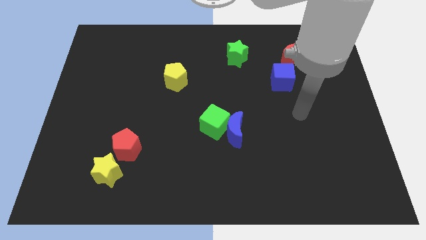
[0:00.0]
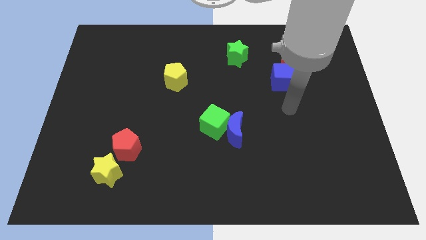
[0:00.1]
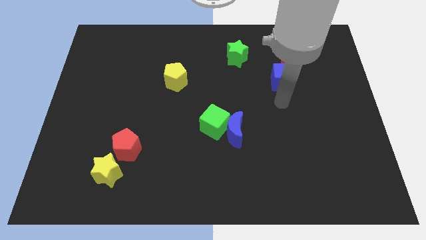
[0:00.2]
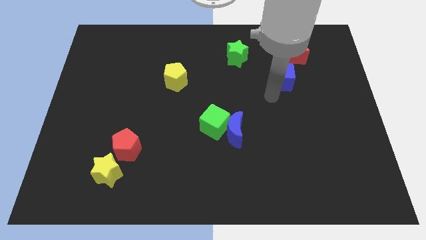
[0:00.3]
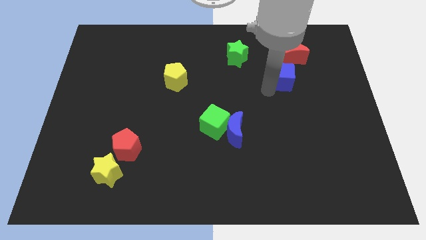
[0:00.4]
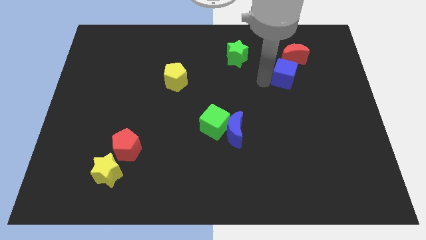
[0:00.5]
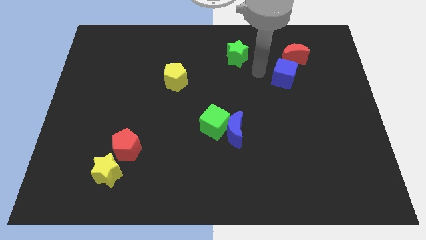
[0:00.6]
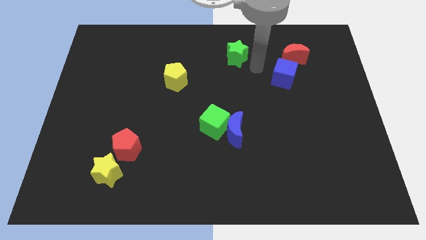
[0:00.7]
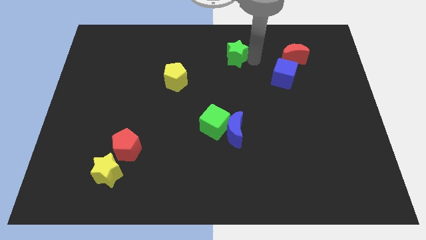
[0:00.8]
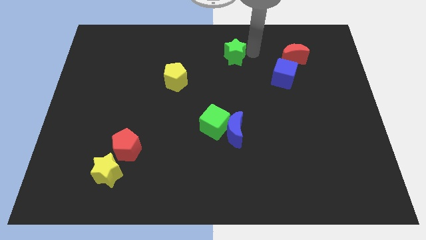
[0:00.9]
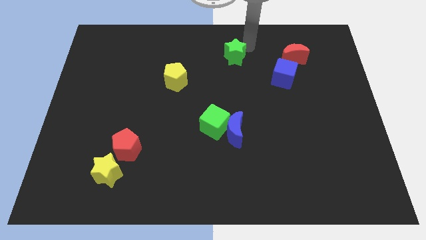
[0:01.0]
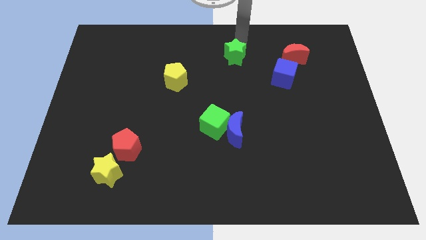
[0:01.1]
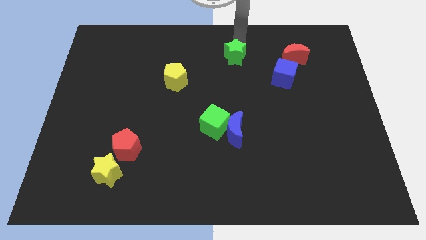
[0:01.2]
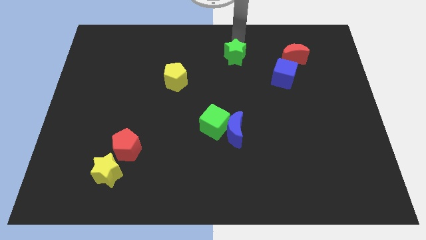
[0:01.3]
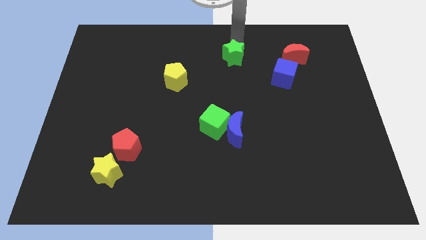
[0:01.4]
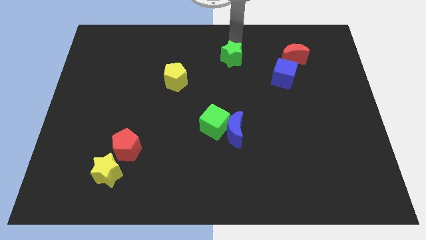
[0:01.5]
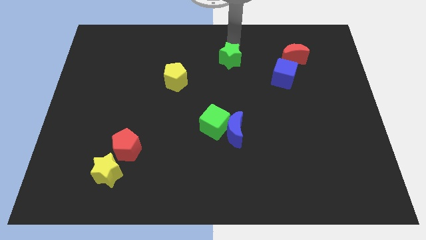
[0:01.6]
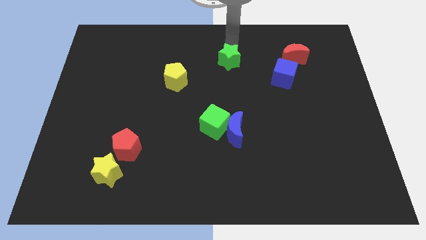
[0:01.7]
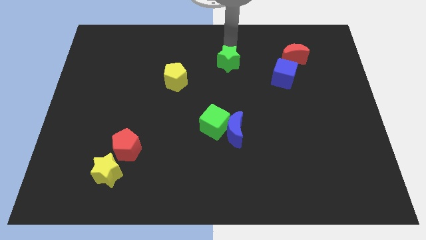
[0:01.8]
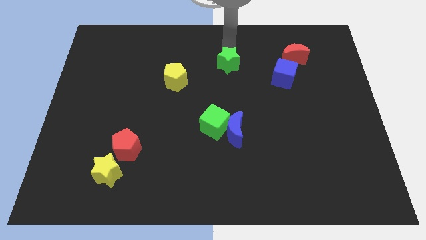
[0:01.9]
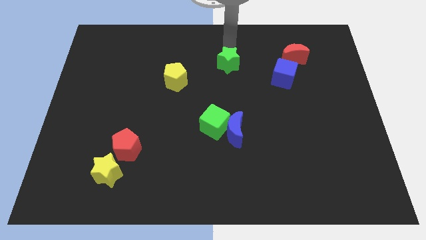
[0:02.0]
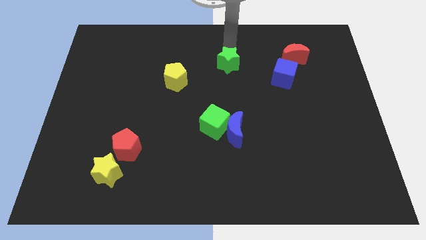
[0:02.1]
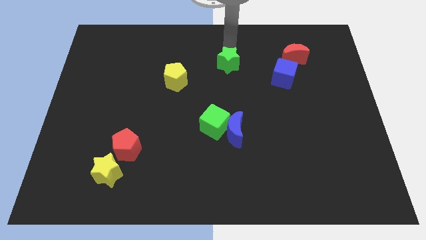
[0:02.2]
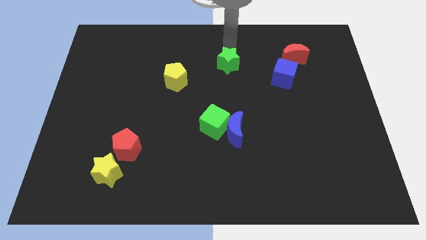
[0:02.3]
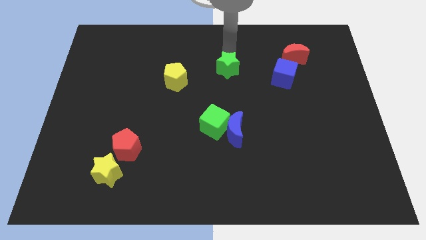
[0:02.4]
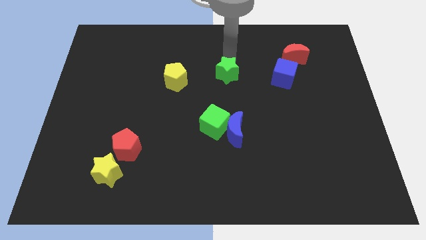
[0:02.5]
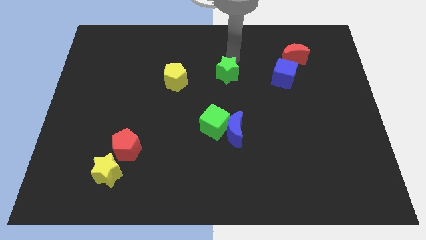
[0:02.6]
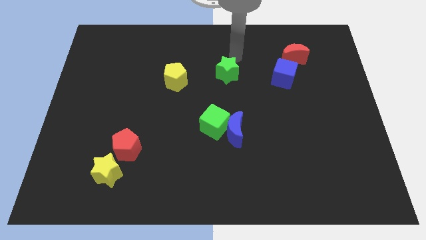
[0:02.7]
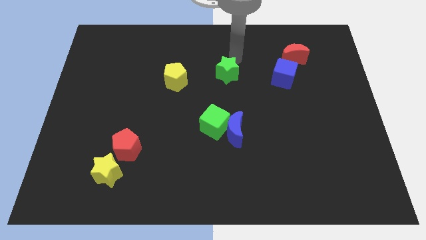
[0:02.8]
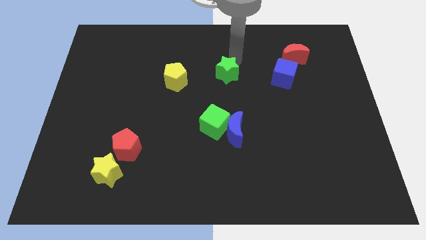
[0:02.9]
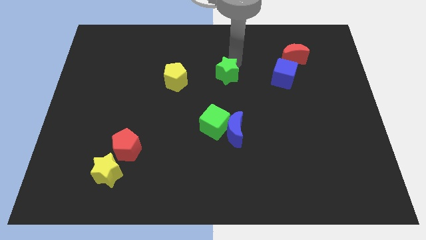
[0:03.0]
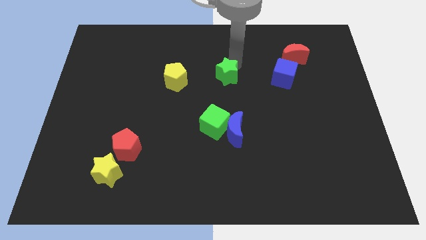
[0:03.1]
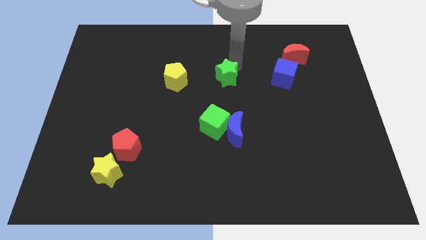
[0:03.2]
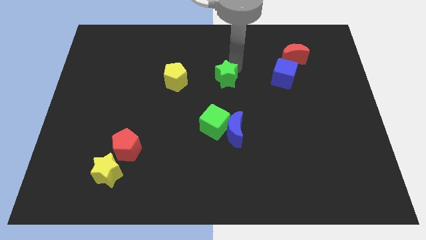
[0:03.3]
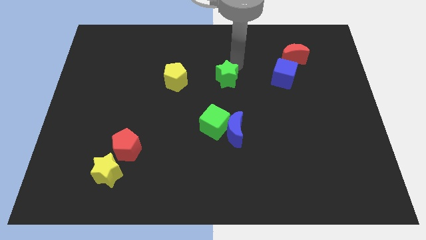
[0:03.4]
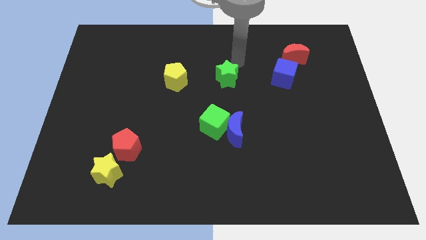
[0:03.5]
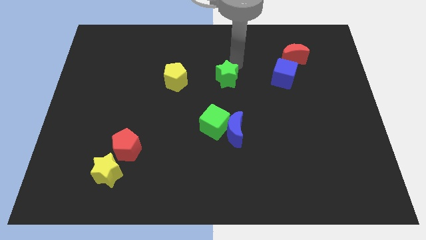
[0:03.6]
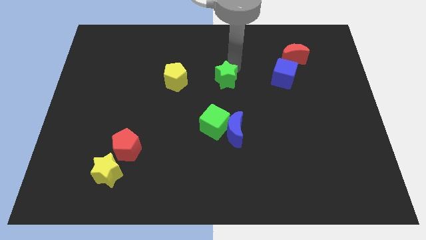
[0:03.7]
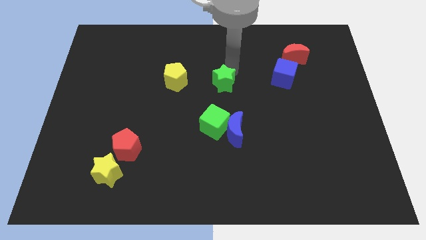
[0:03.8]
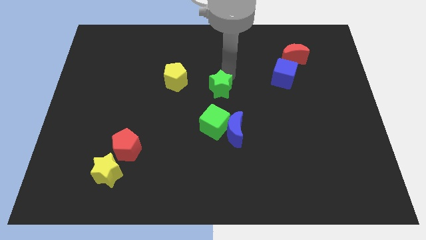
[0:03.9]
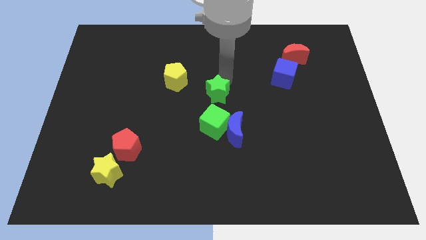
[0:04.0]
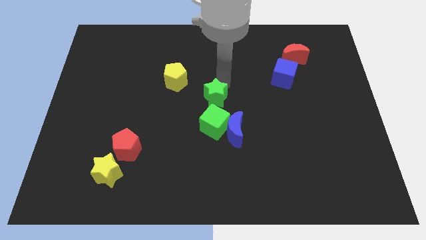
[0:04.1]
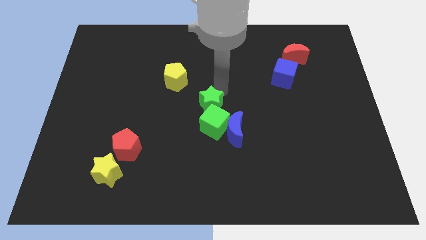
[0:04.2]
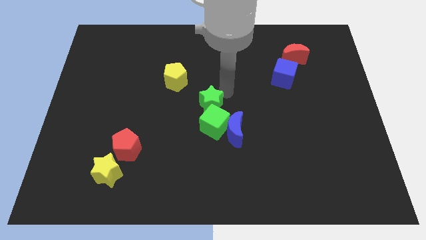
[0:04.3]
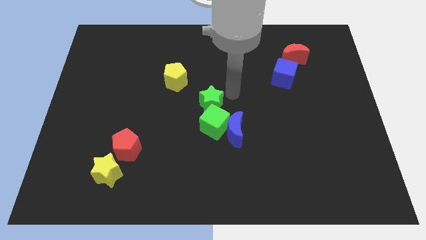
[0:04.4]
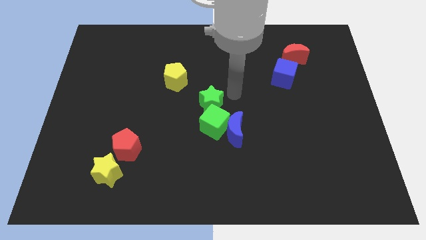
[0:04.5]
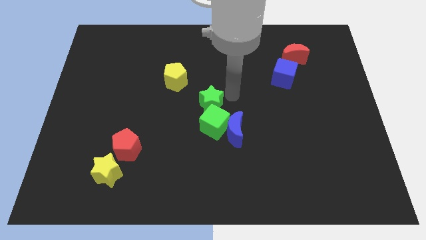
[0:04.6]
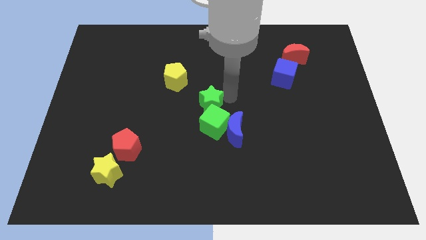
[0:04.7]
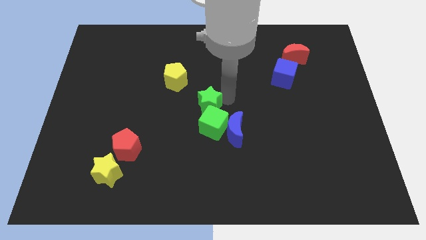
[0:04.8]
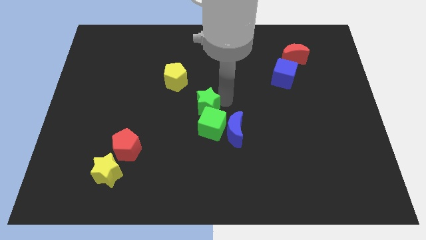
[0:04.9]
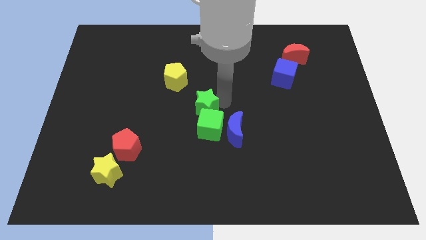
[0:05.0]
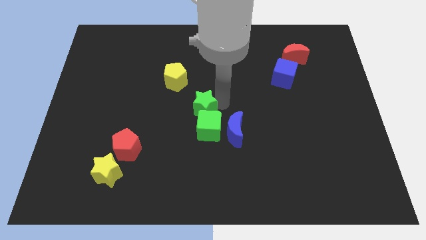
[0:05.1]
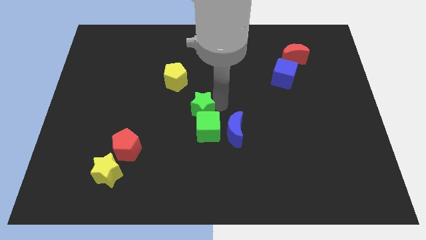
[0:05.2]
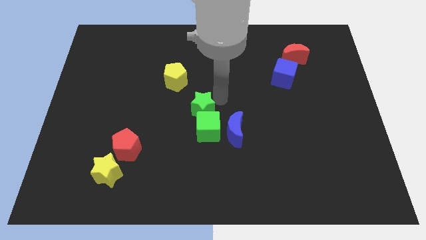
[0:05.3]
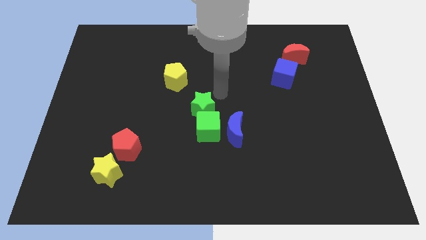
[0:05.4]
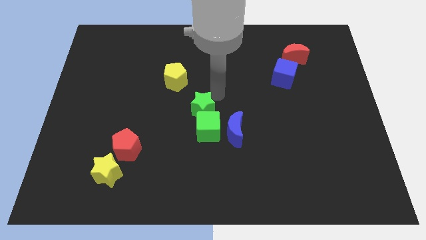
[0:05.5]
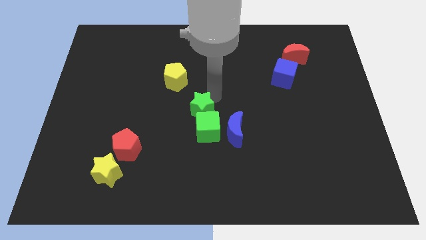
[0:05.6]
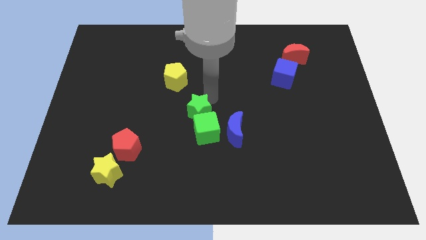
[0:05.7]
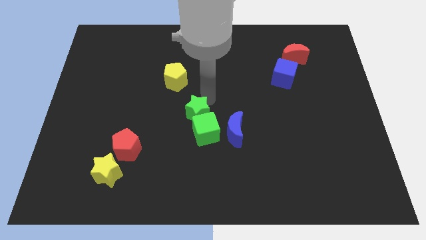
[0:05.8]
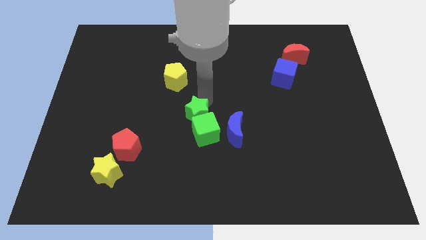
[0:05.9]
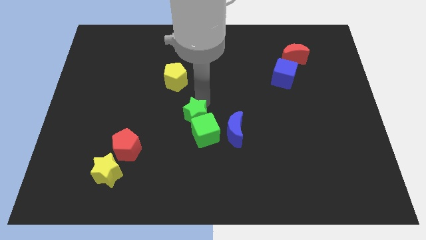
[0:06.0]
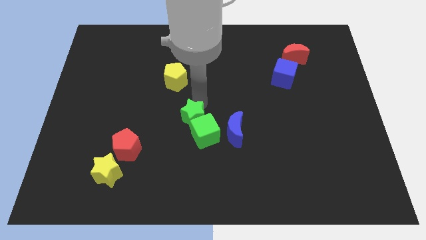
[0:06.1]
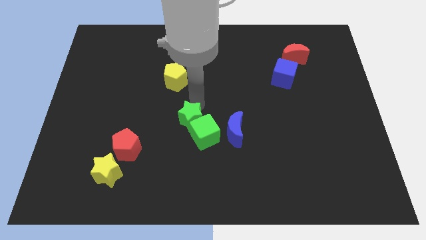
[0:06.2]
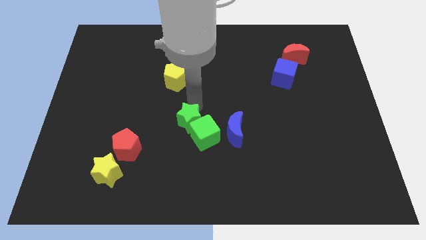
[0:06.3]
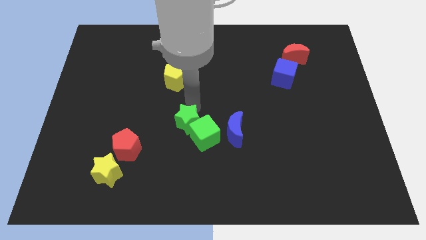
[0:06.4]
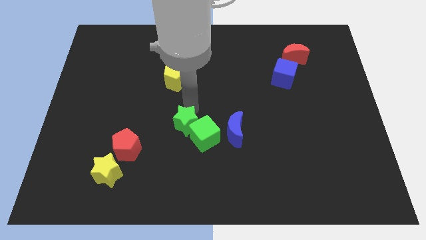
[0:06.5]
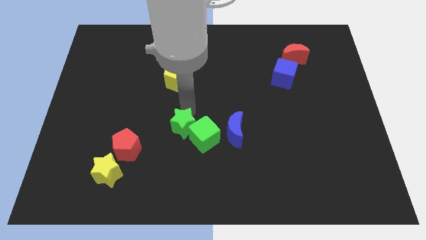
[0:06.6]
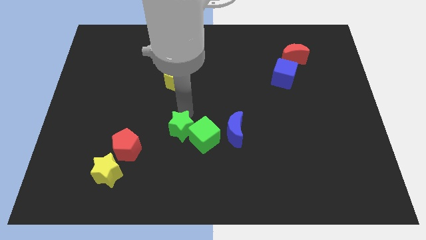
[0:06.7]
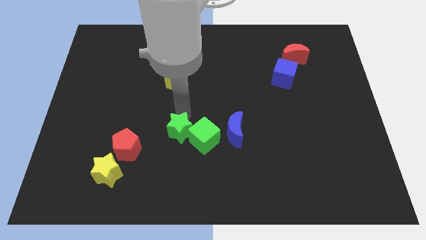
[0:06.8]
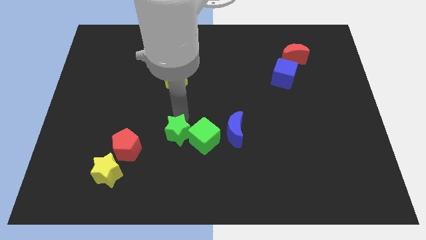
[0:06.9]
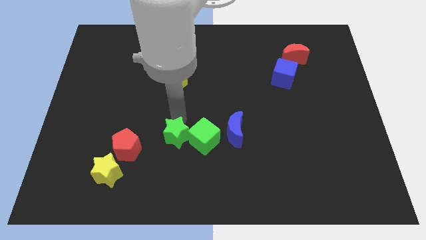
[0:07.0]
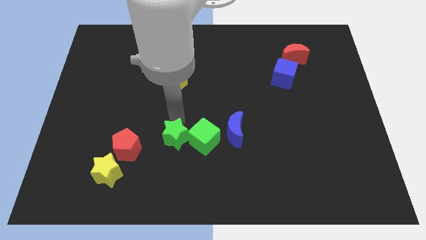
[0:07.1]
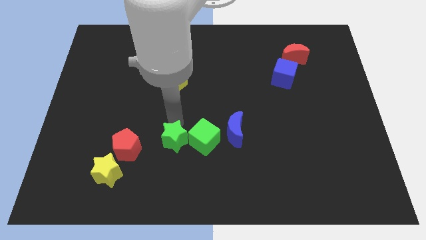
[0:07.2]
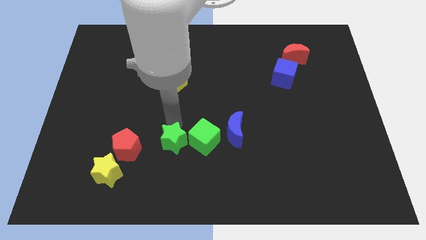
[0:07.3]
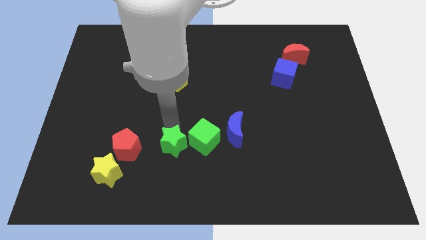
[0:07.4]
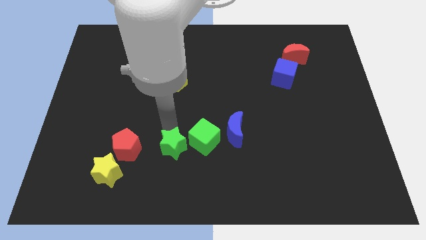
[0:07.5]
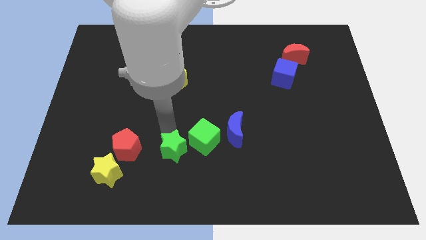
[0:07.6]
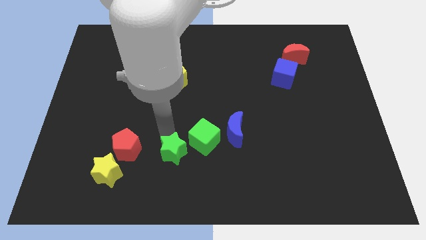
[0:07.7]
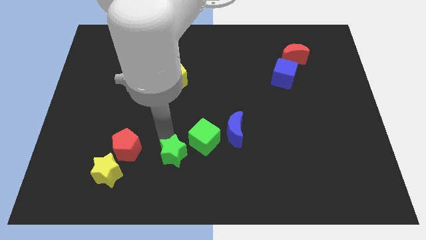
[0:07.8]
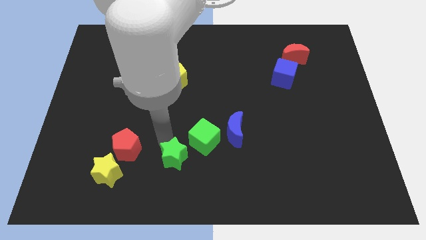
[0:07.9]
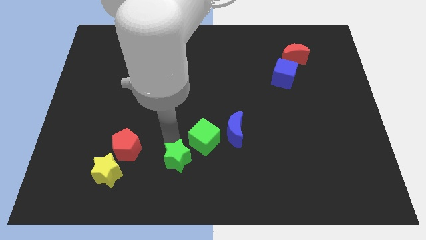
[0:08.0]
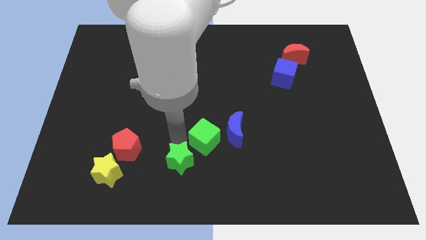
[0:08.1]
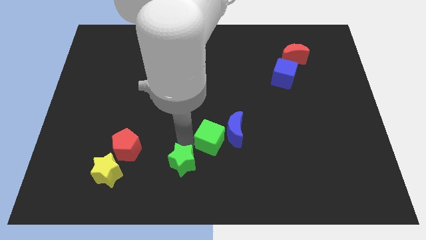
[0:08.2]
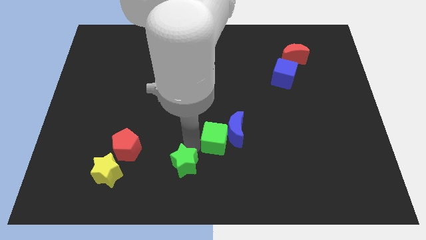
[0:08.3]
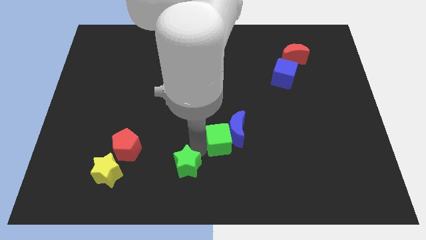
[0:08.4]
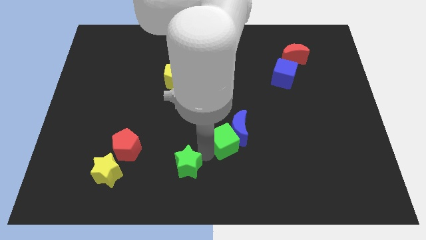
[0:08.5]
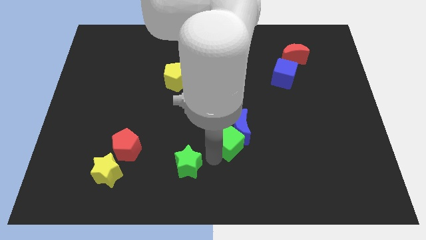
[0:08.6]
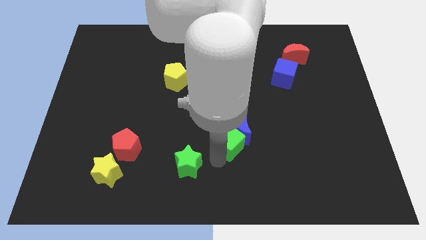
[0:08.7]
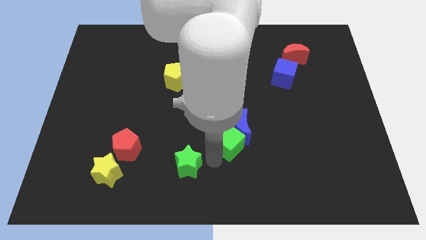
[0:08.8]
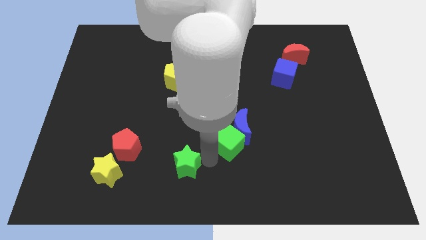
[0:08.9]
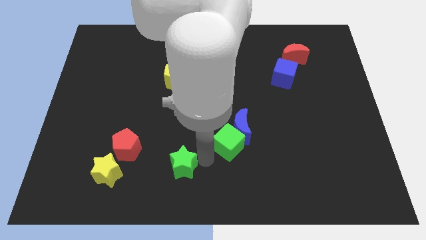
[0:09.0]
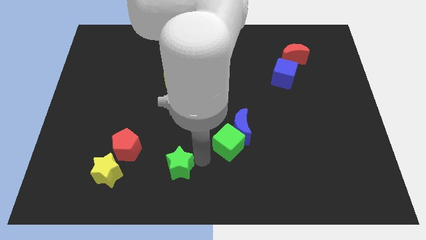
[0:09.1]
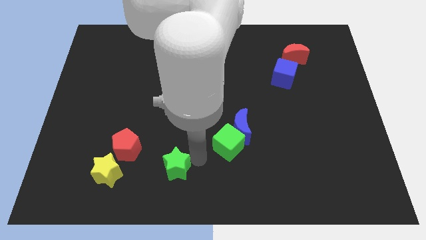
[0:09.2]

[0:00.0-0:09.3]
push the green star diagonally down and to the right of the red pentagon
